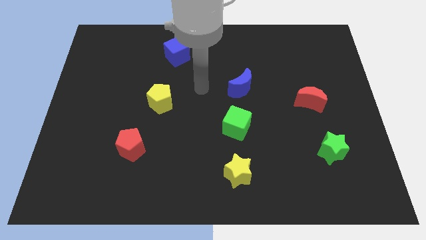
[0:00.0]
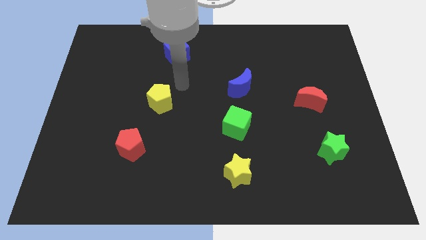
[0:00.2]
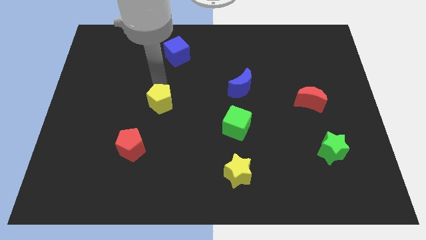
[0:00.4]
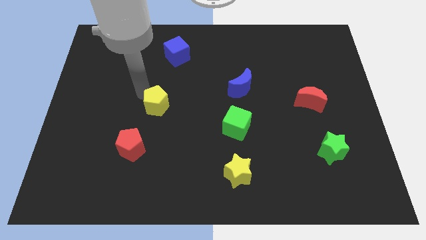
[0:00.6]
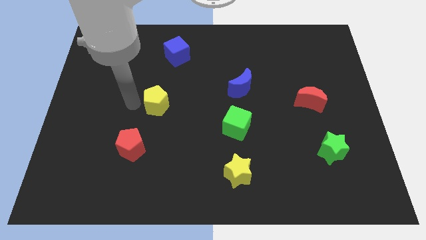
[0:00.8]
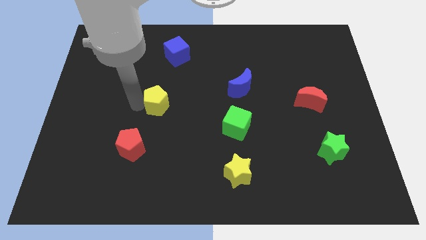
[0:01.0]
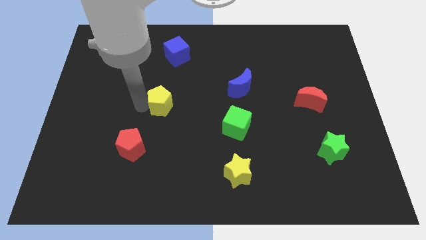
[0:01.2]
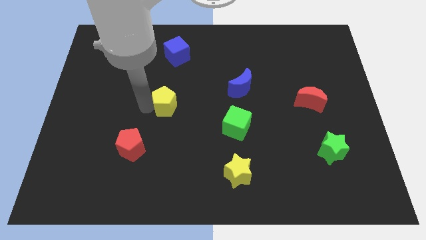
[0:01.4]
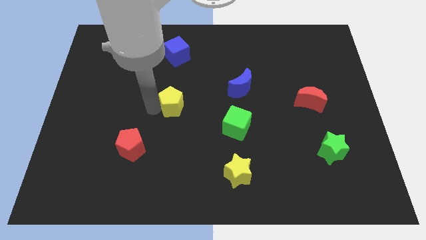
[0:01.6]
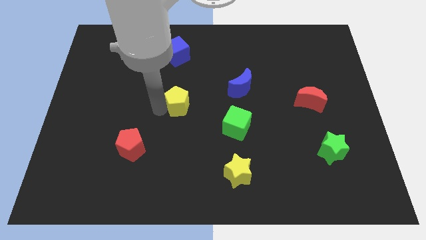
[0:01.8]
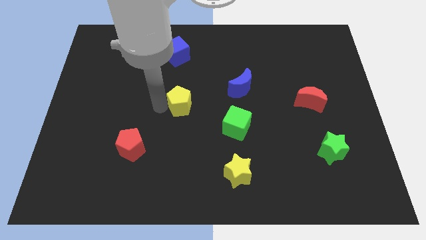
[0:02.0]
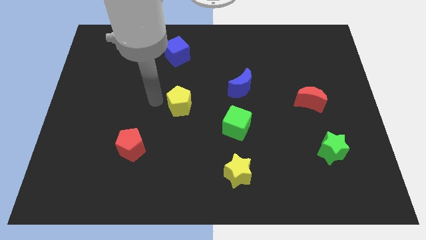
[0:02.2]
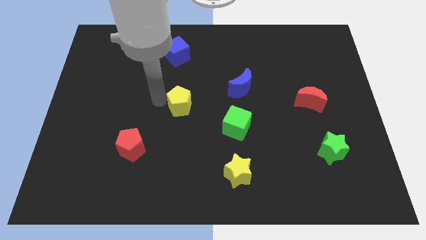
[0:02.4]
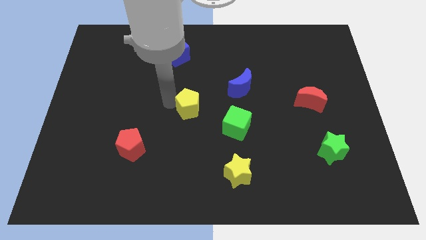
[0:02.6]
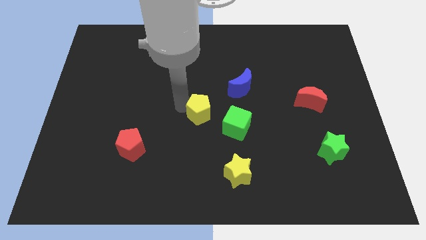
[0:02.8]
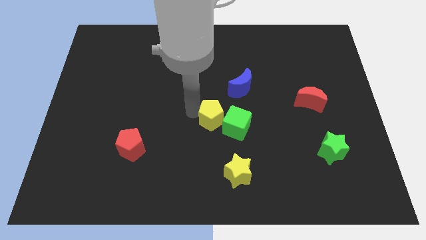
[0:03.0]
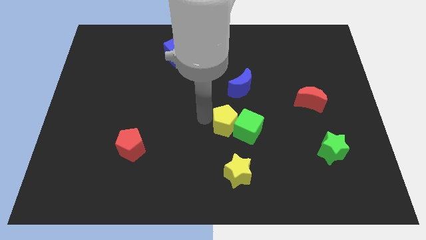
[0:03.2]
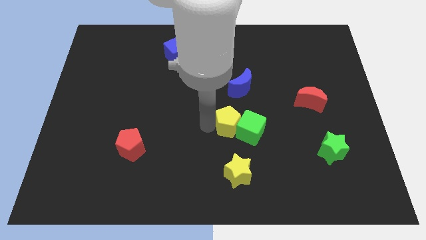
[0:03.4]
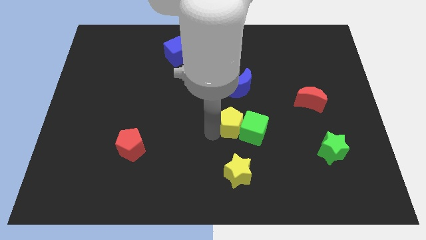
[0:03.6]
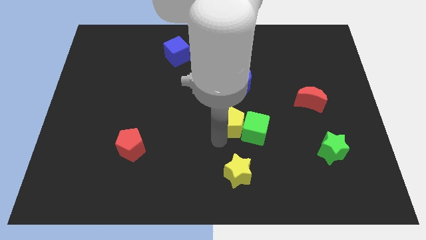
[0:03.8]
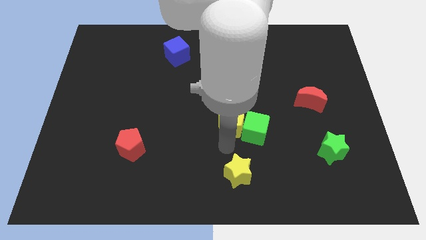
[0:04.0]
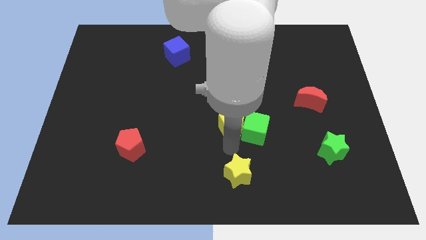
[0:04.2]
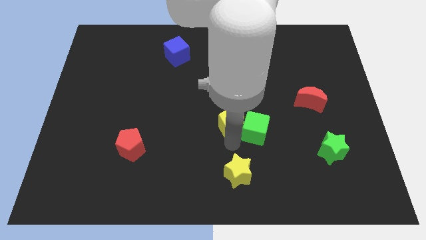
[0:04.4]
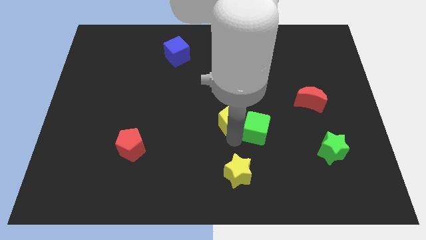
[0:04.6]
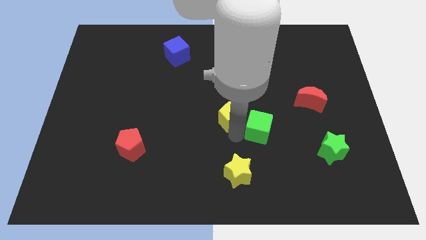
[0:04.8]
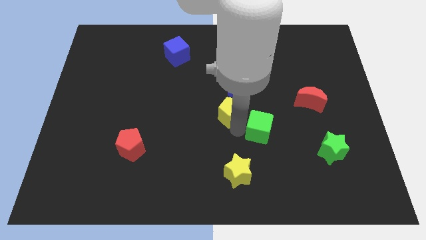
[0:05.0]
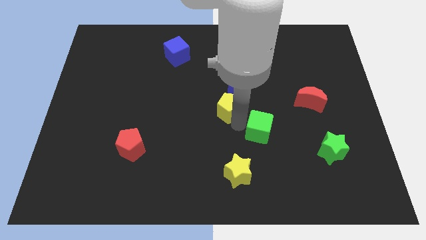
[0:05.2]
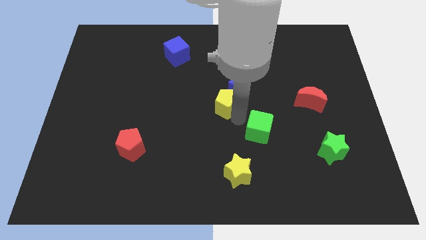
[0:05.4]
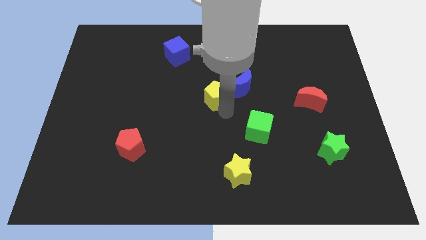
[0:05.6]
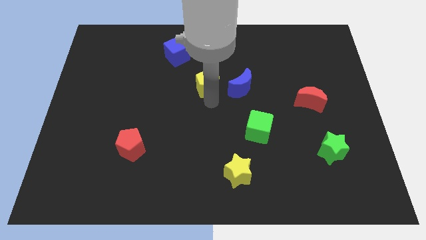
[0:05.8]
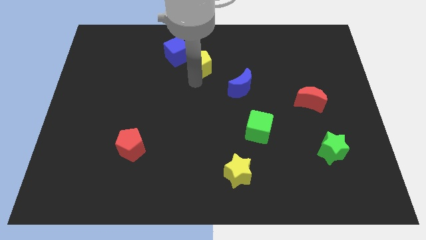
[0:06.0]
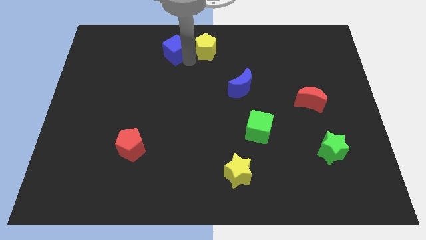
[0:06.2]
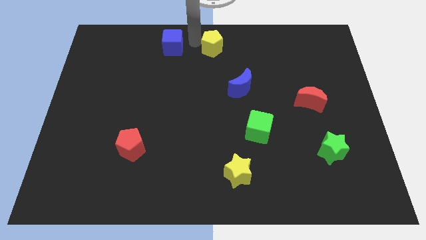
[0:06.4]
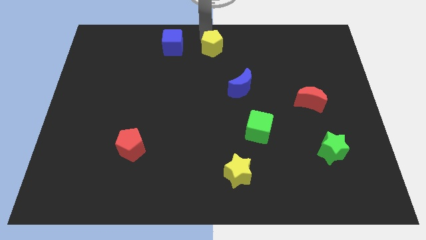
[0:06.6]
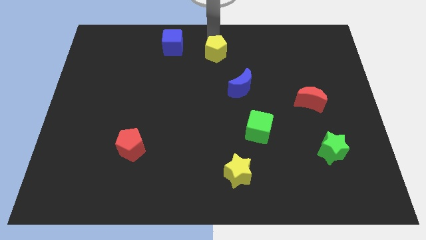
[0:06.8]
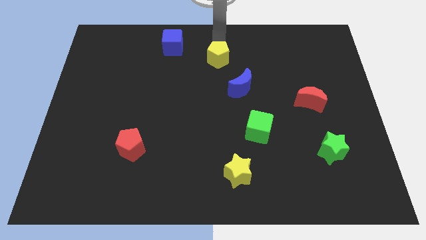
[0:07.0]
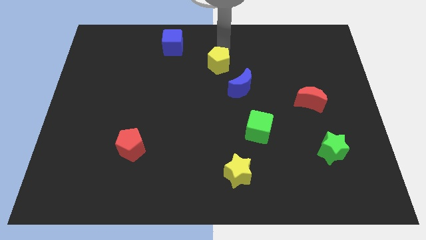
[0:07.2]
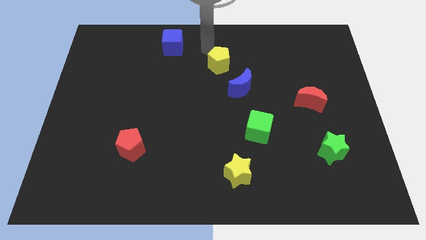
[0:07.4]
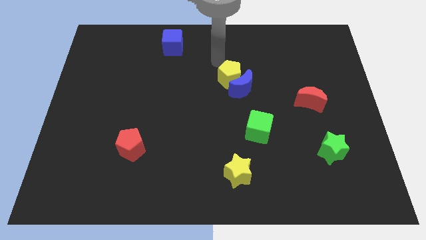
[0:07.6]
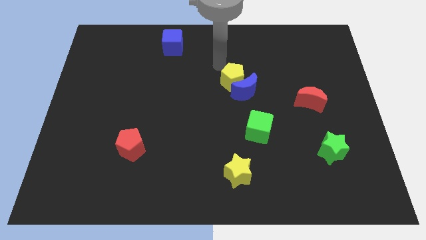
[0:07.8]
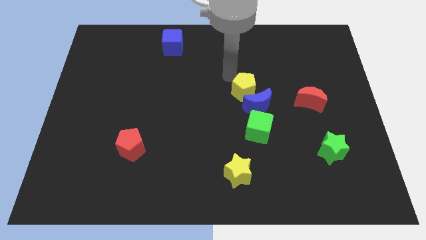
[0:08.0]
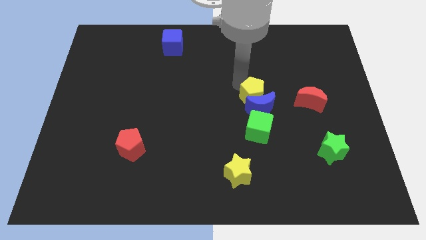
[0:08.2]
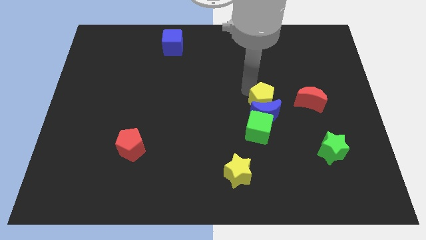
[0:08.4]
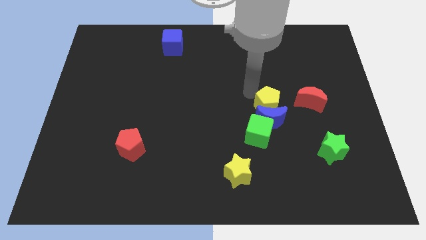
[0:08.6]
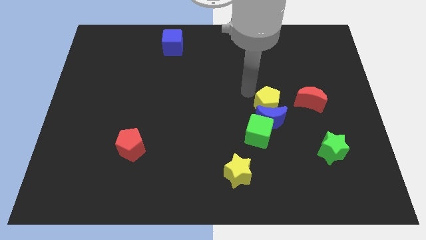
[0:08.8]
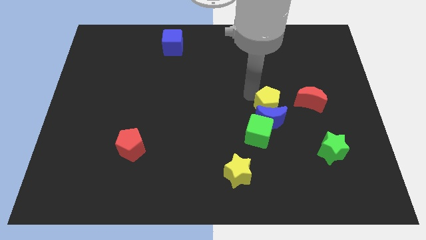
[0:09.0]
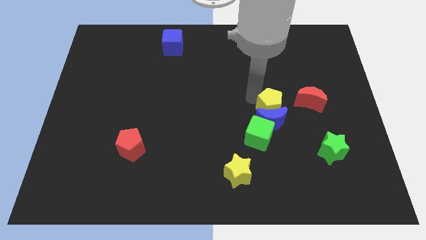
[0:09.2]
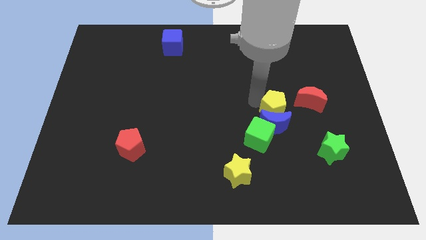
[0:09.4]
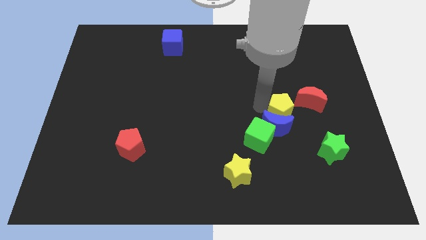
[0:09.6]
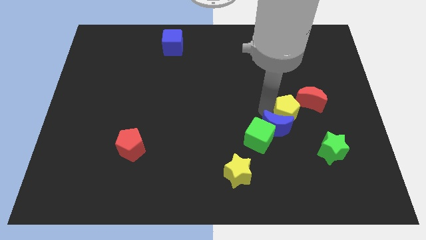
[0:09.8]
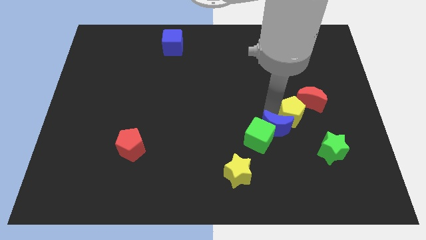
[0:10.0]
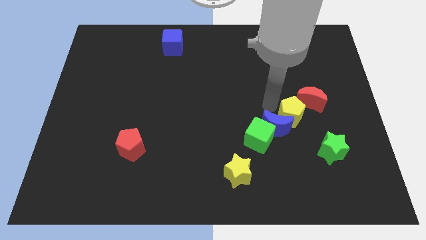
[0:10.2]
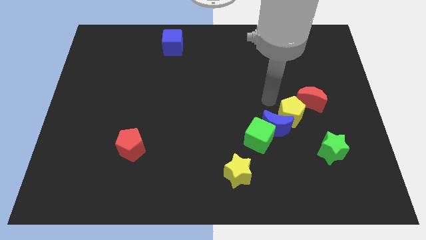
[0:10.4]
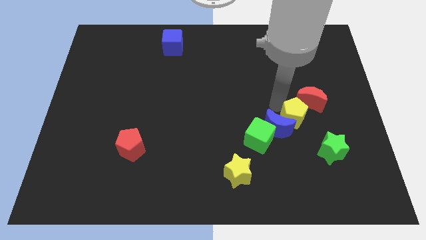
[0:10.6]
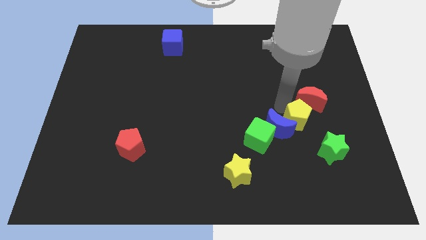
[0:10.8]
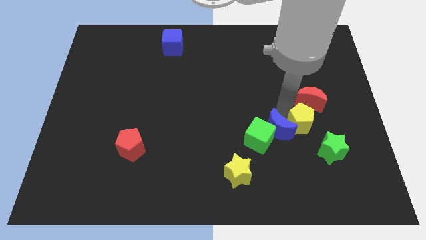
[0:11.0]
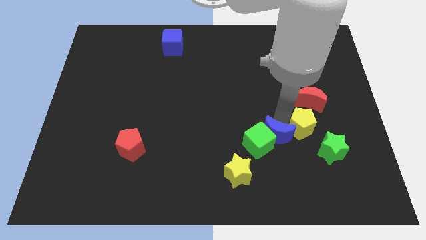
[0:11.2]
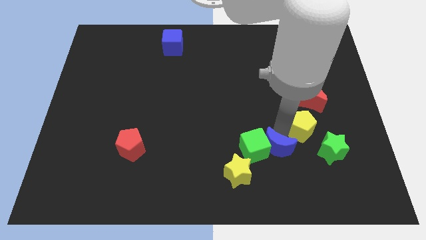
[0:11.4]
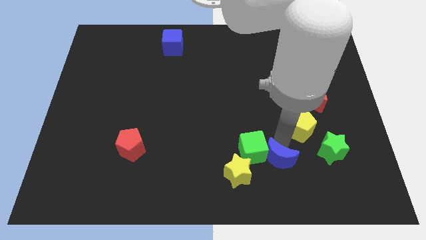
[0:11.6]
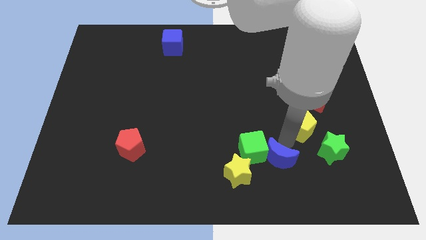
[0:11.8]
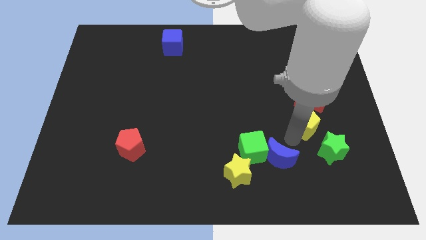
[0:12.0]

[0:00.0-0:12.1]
slide the yellow pentagon above the green star
